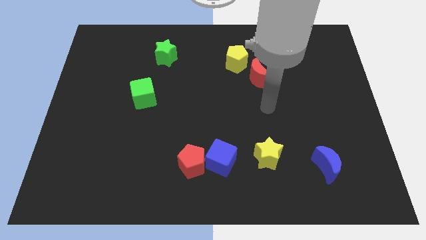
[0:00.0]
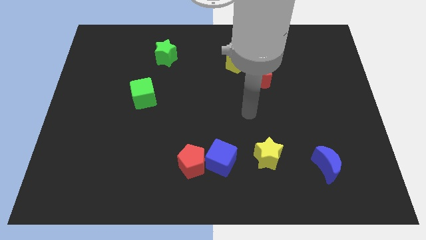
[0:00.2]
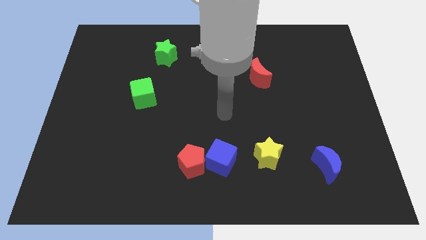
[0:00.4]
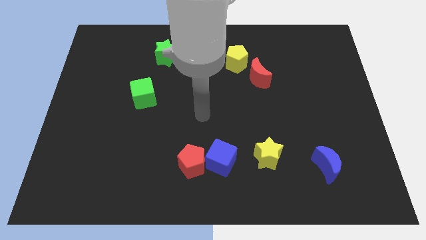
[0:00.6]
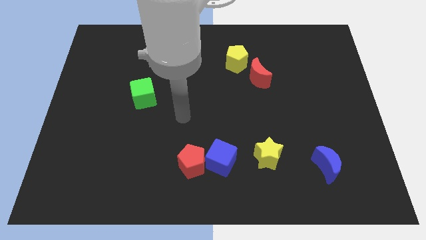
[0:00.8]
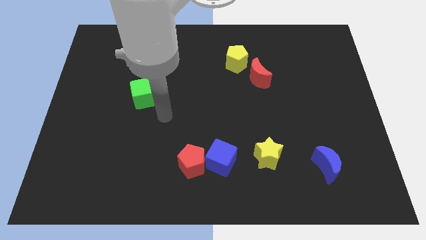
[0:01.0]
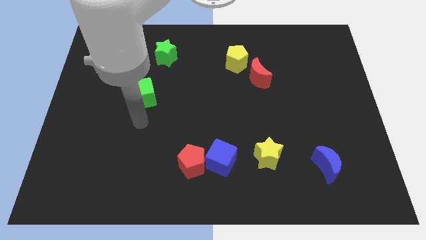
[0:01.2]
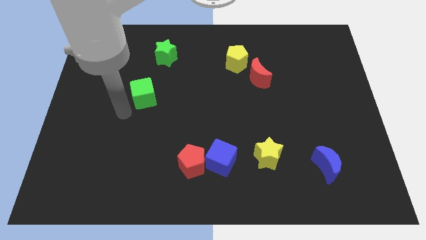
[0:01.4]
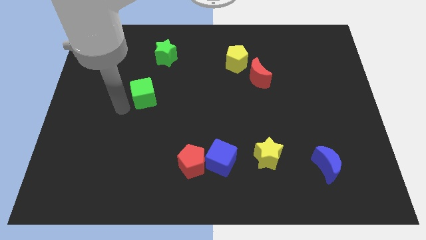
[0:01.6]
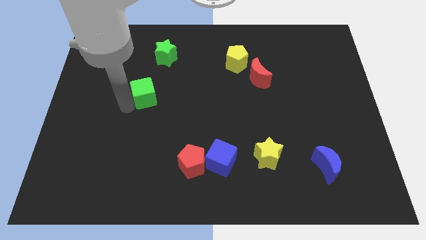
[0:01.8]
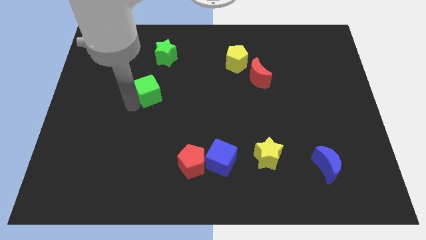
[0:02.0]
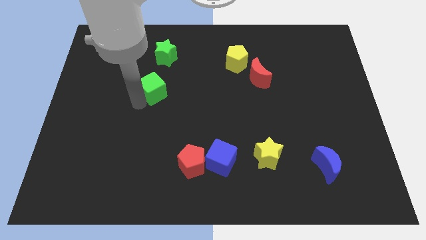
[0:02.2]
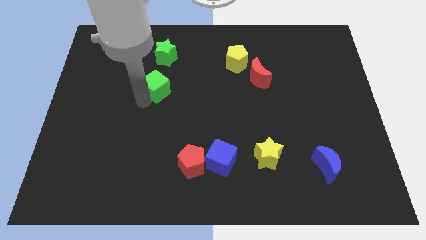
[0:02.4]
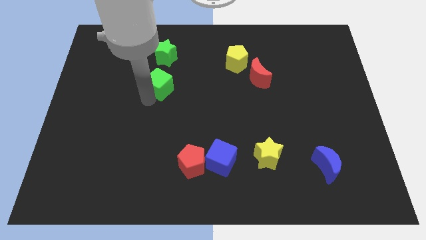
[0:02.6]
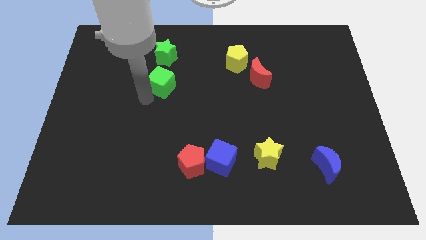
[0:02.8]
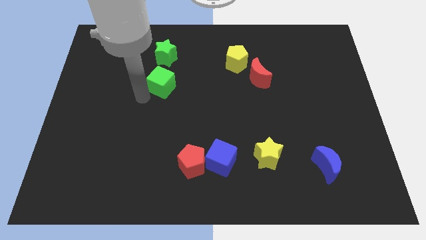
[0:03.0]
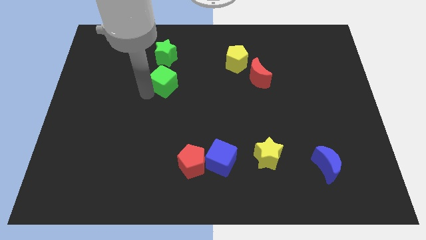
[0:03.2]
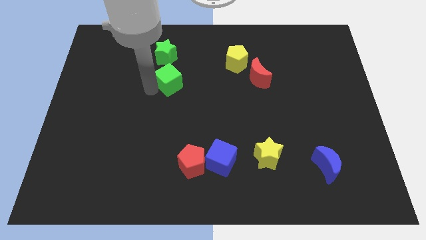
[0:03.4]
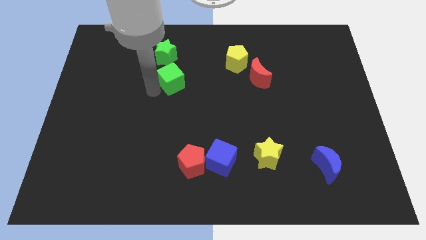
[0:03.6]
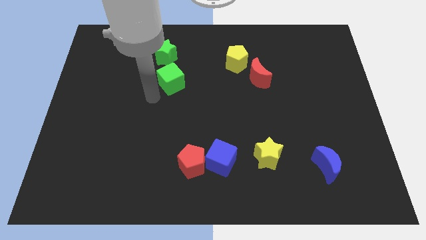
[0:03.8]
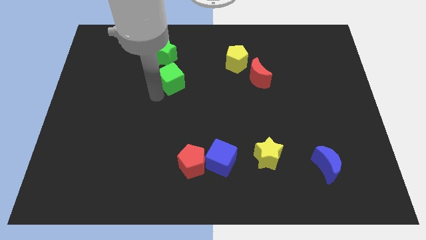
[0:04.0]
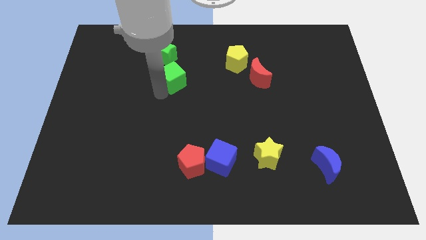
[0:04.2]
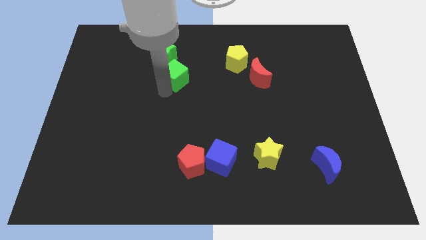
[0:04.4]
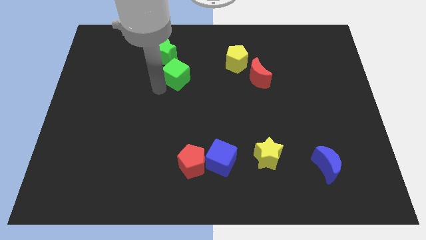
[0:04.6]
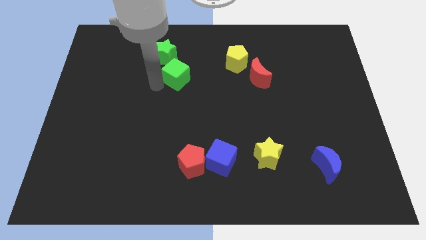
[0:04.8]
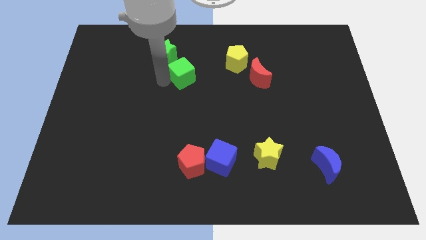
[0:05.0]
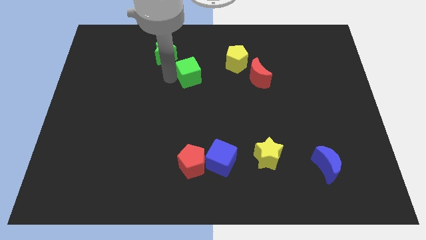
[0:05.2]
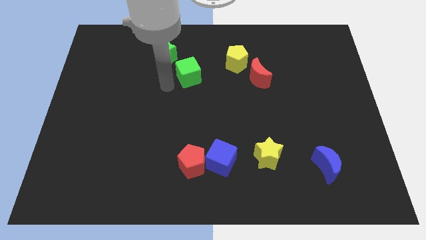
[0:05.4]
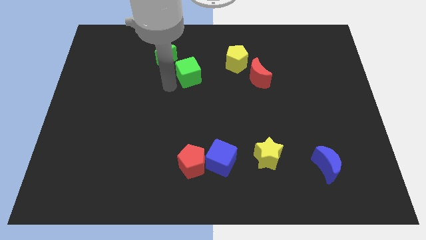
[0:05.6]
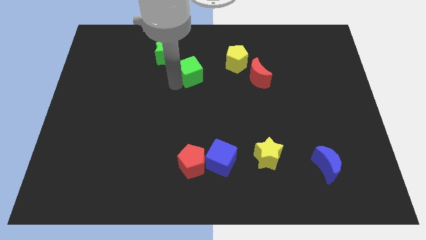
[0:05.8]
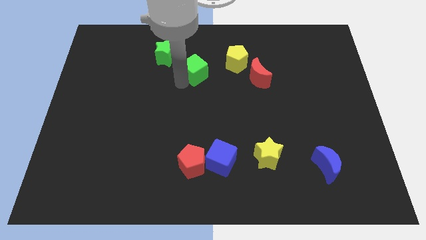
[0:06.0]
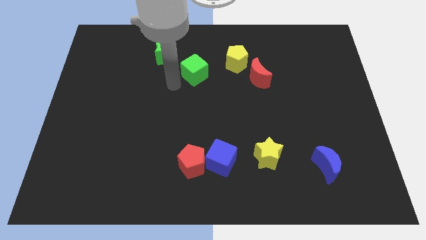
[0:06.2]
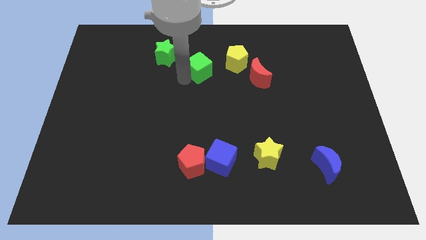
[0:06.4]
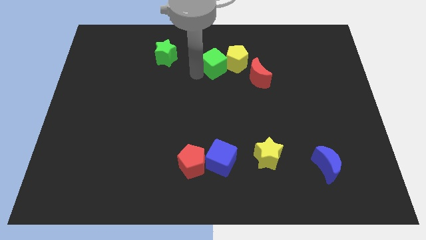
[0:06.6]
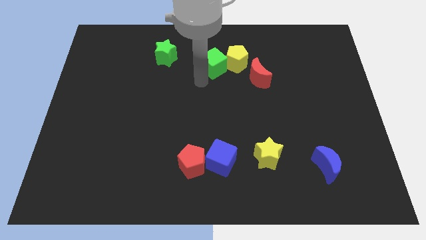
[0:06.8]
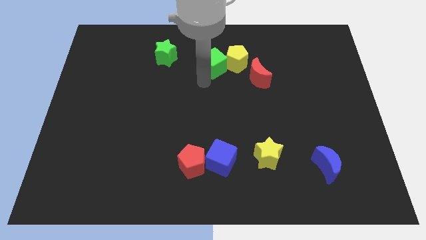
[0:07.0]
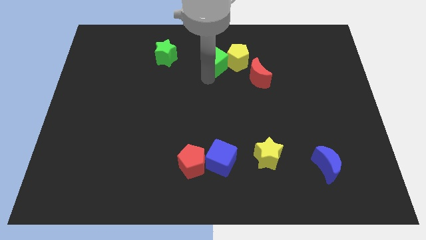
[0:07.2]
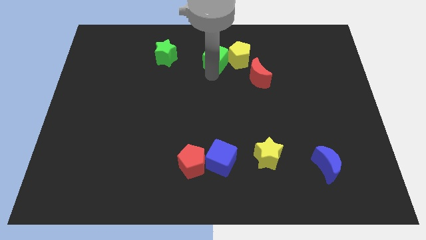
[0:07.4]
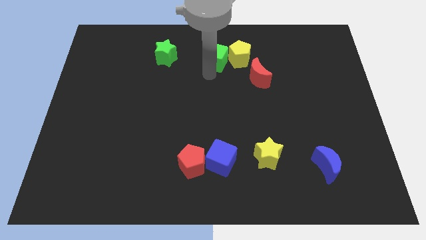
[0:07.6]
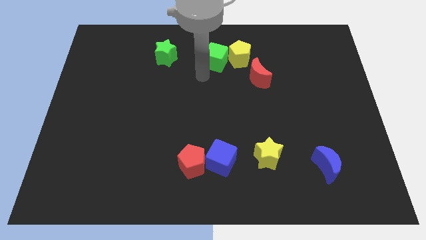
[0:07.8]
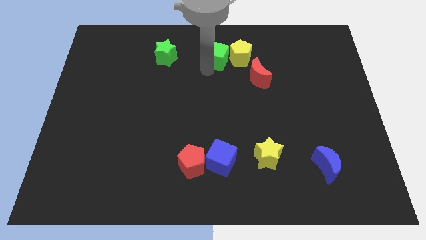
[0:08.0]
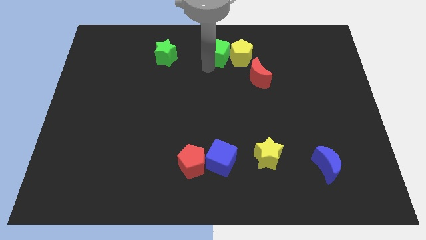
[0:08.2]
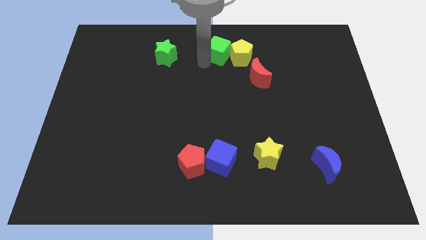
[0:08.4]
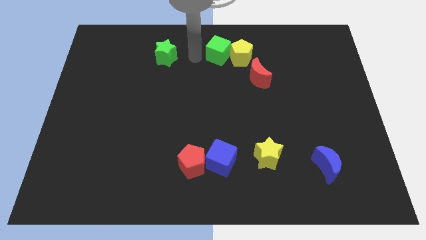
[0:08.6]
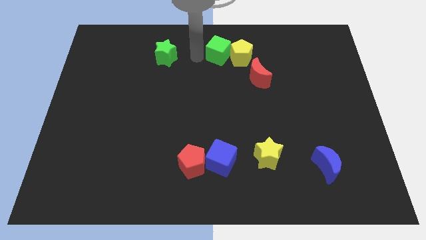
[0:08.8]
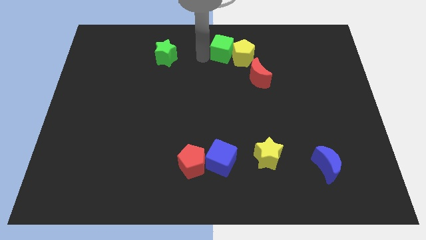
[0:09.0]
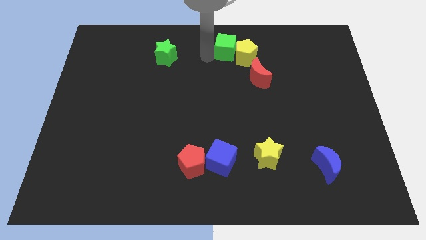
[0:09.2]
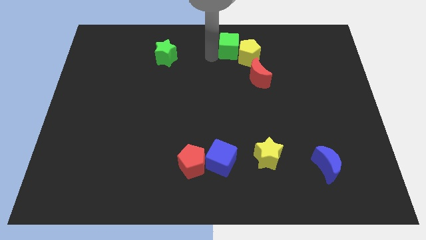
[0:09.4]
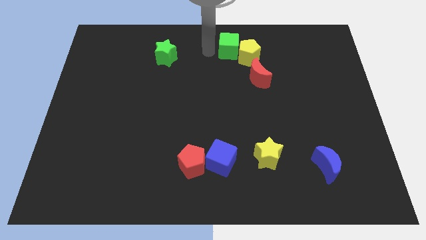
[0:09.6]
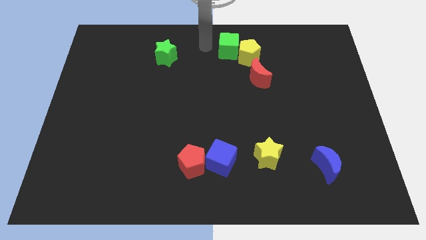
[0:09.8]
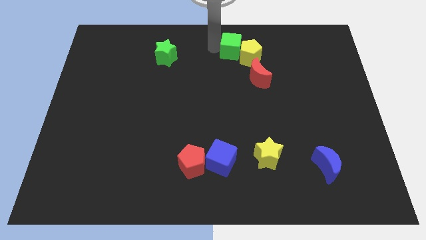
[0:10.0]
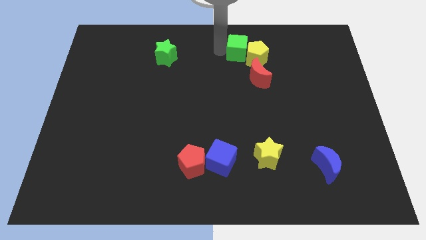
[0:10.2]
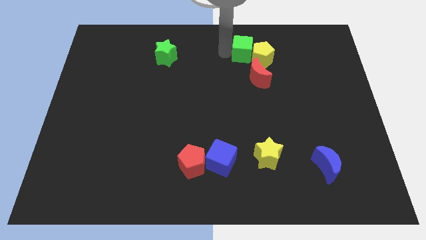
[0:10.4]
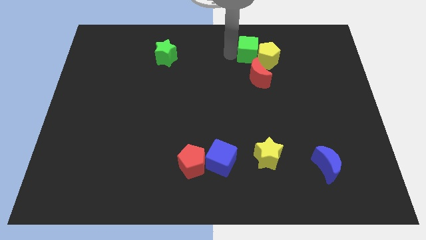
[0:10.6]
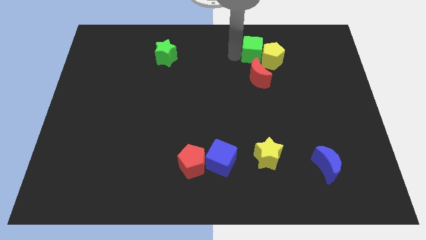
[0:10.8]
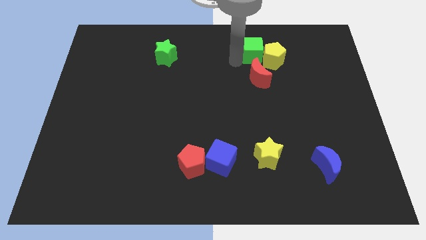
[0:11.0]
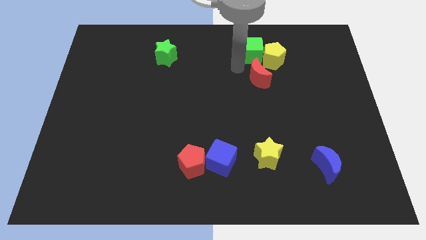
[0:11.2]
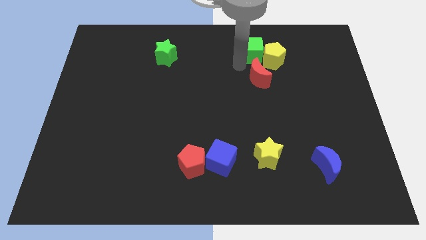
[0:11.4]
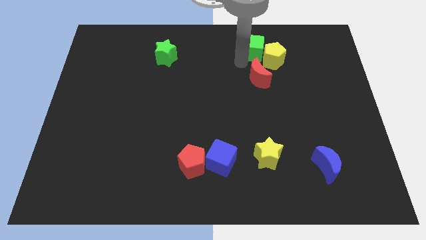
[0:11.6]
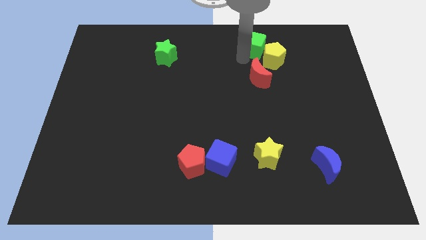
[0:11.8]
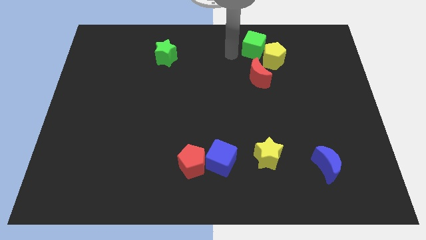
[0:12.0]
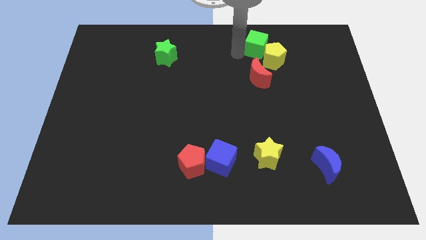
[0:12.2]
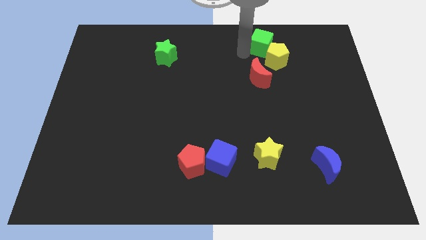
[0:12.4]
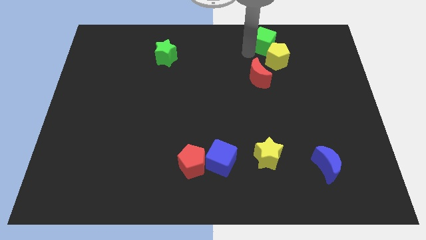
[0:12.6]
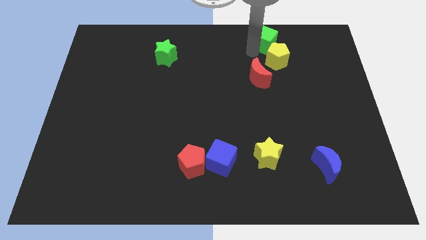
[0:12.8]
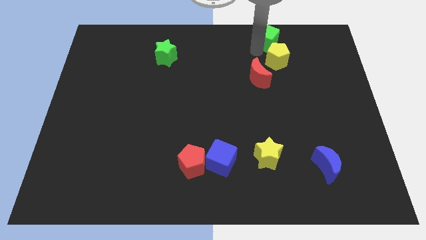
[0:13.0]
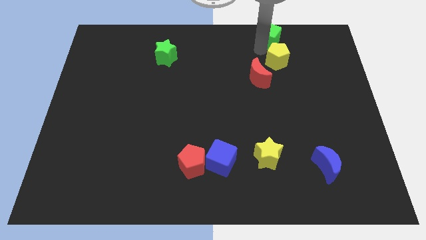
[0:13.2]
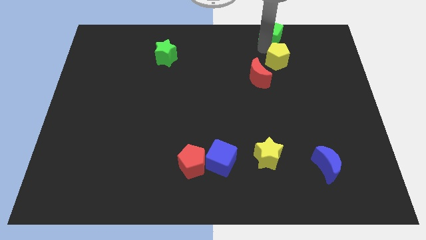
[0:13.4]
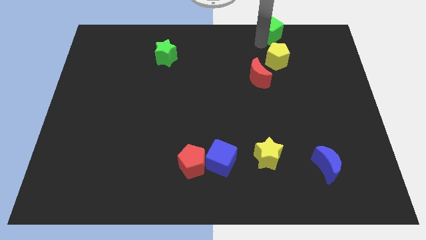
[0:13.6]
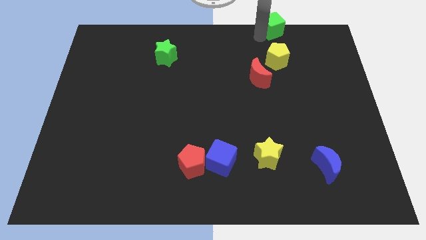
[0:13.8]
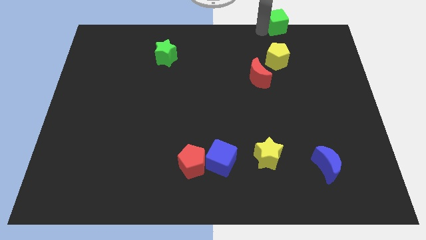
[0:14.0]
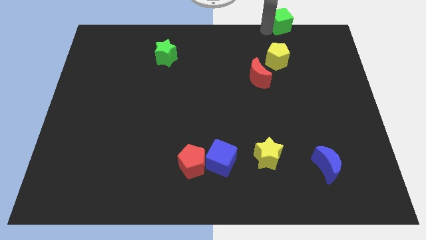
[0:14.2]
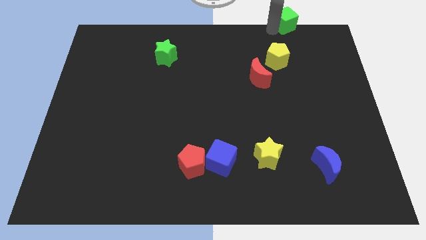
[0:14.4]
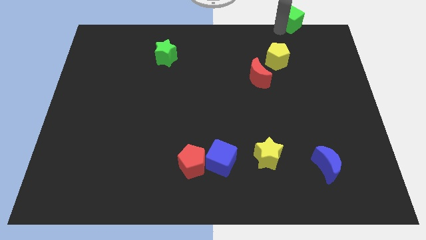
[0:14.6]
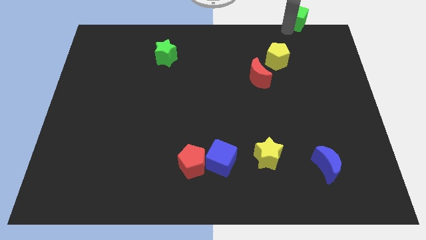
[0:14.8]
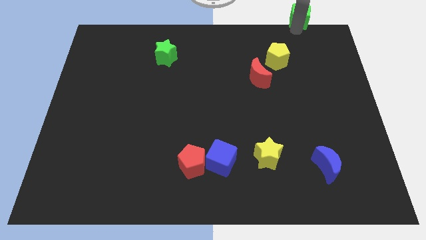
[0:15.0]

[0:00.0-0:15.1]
slide the green cube to the upper right corner
